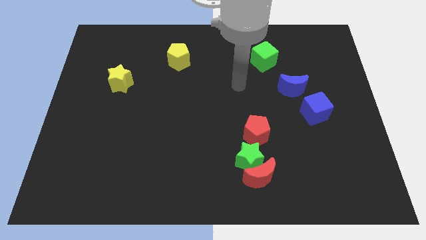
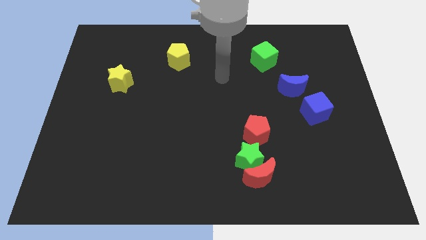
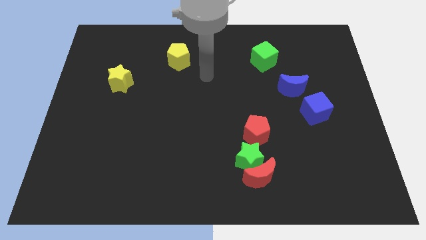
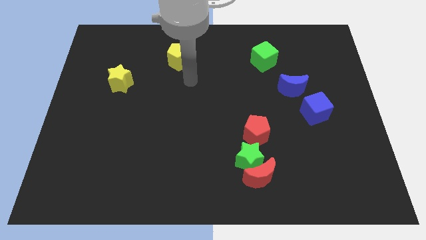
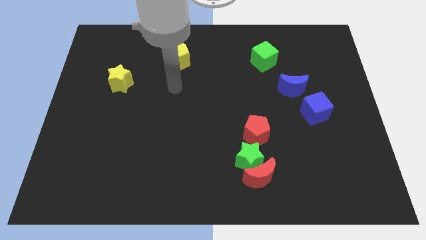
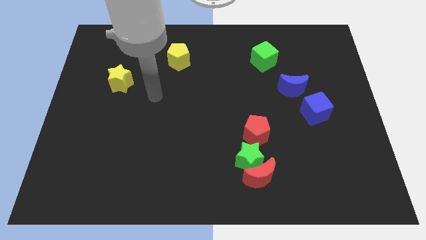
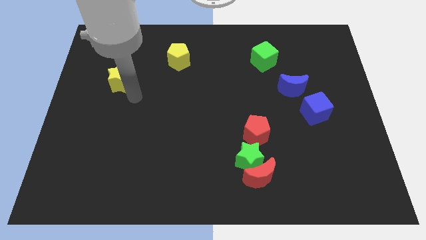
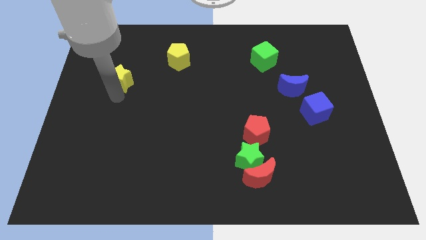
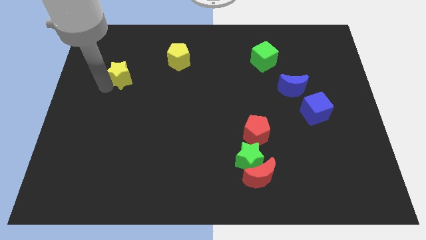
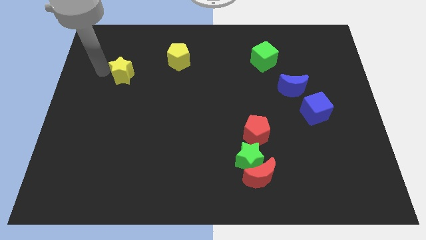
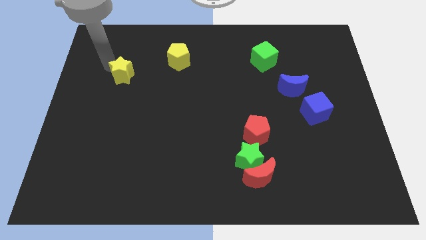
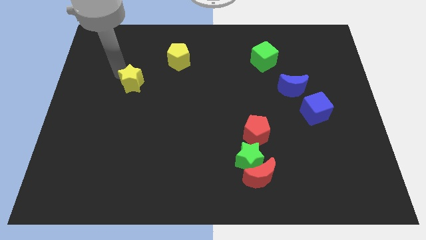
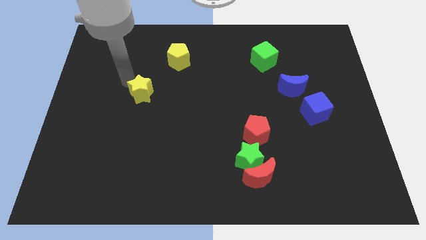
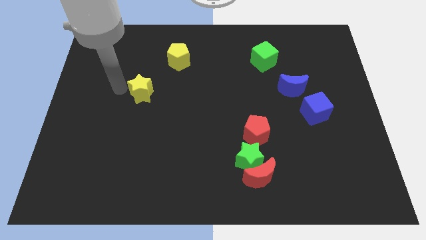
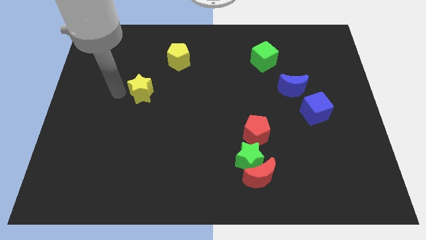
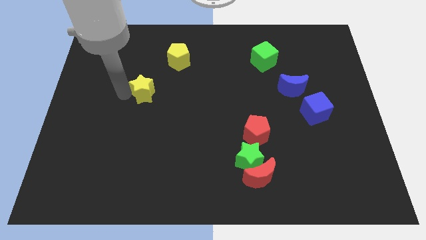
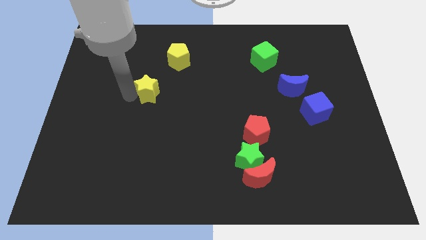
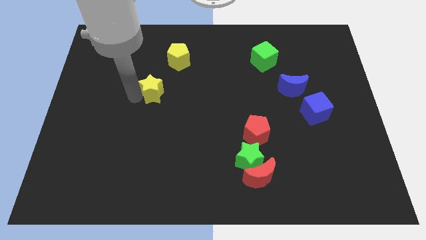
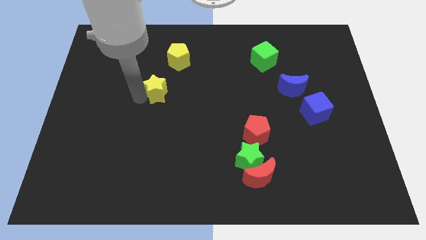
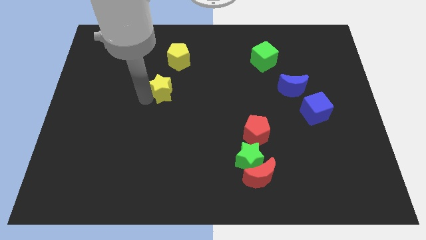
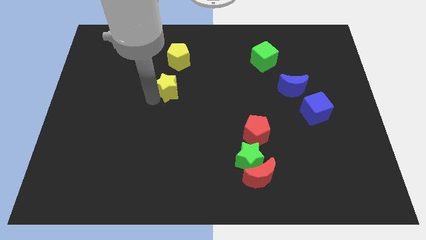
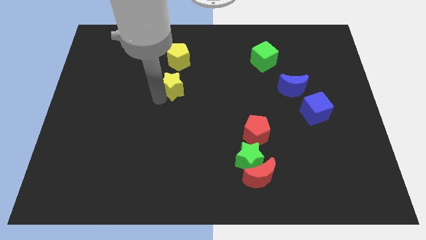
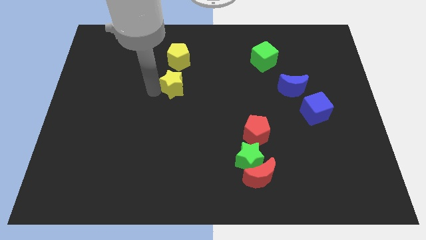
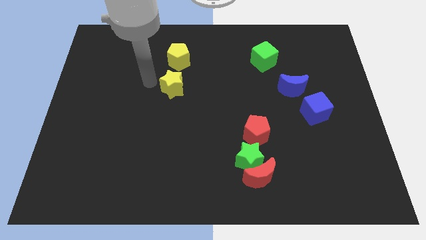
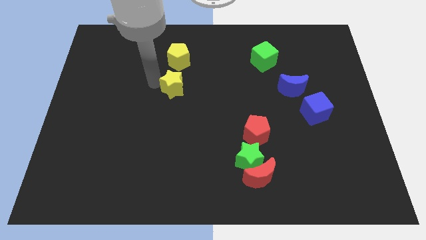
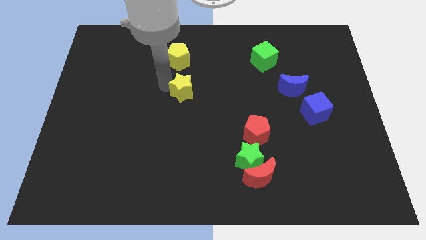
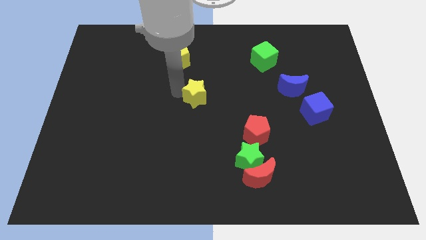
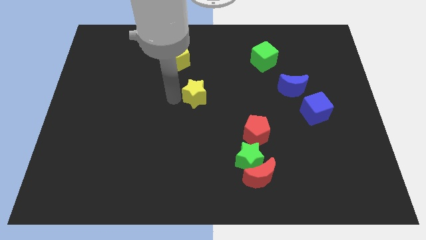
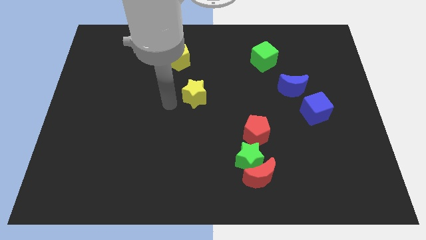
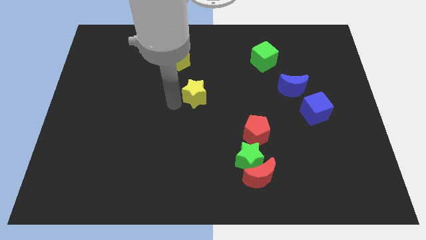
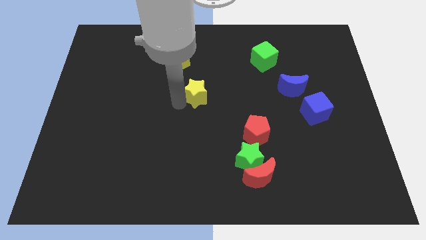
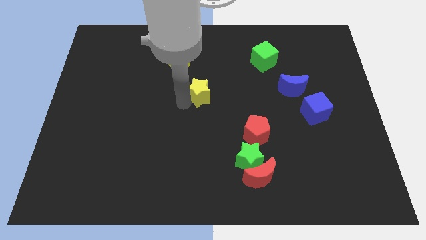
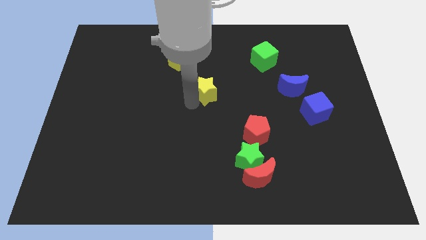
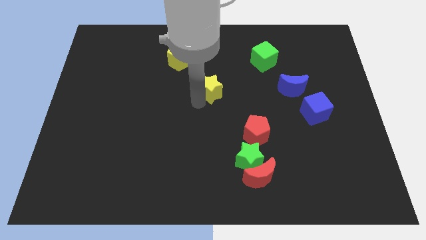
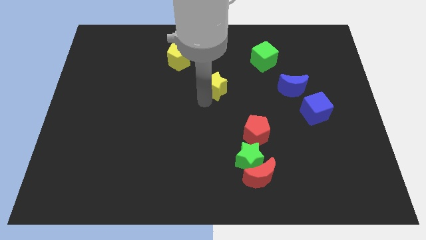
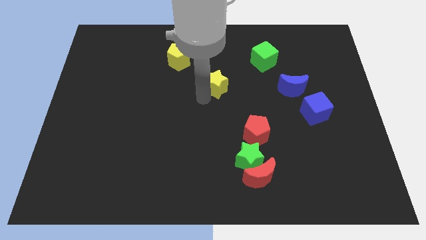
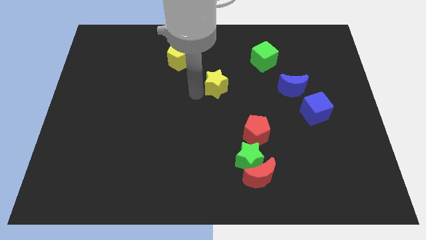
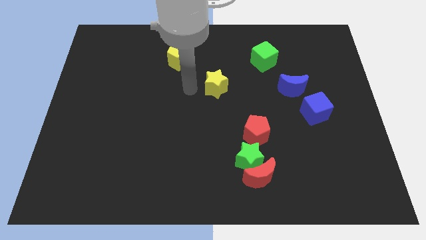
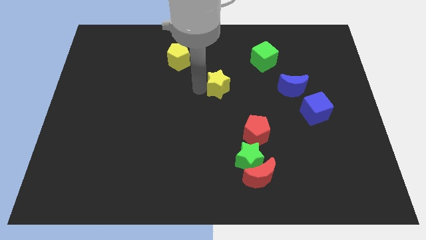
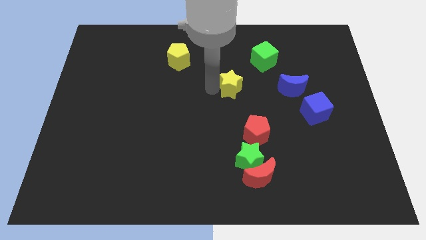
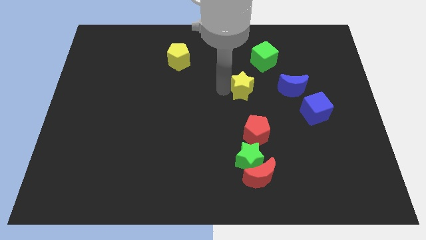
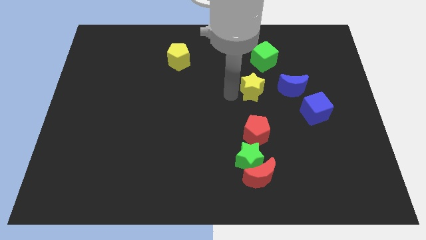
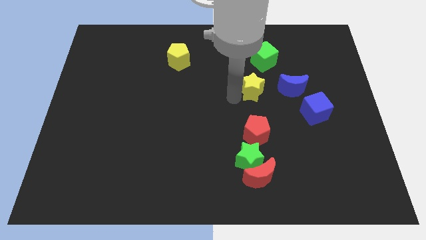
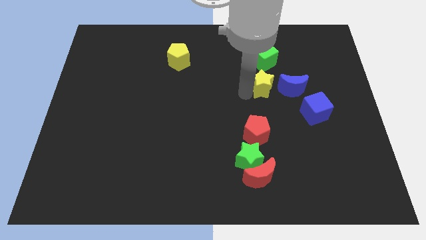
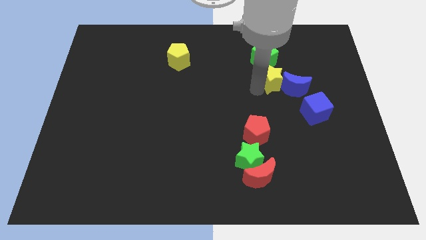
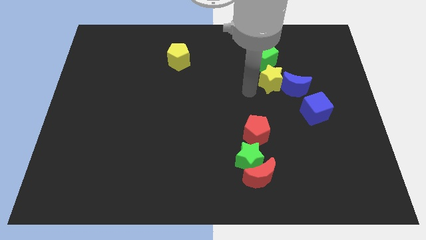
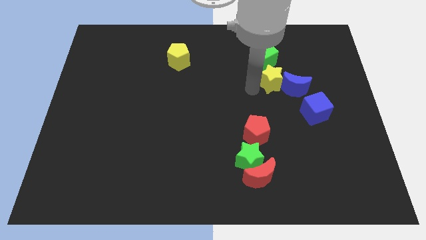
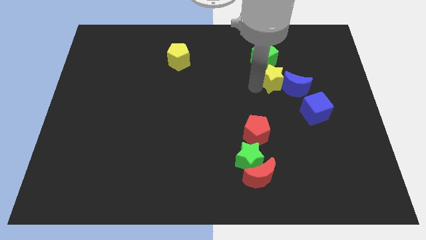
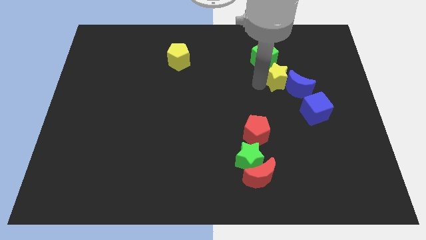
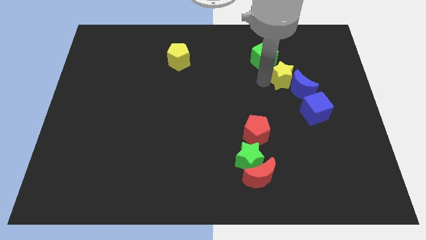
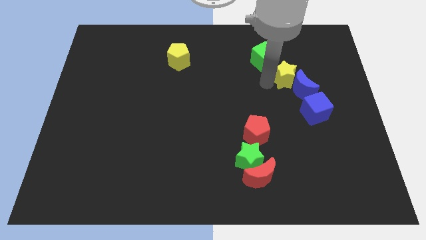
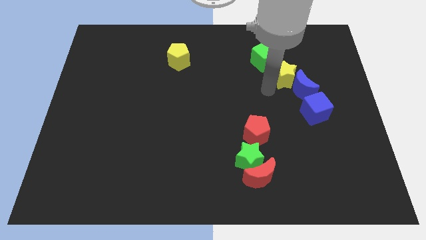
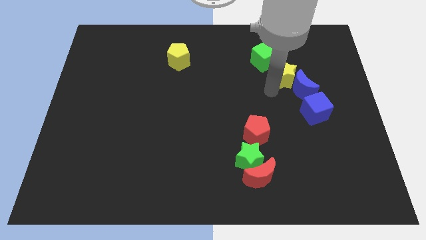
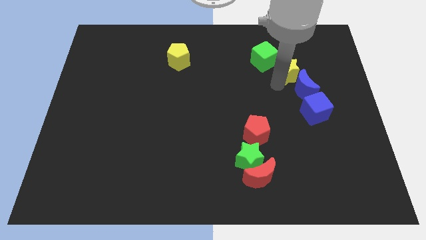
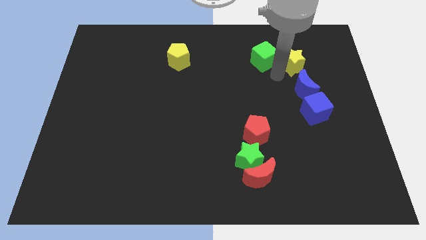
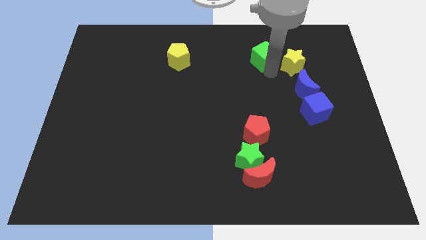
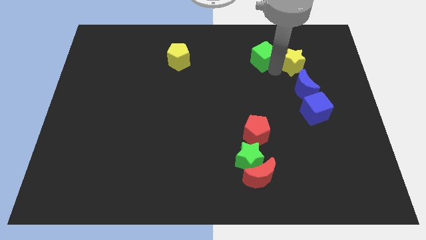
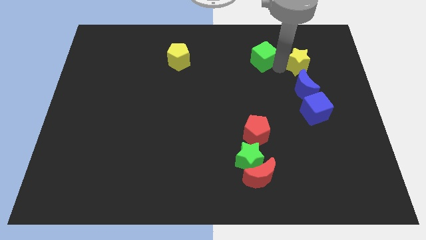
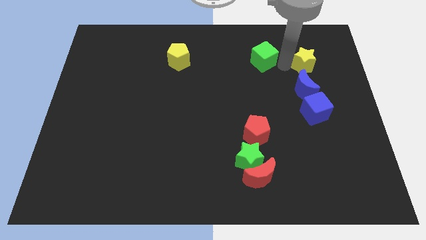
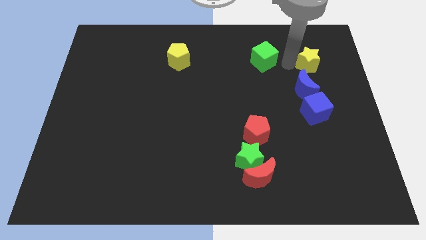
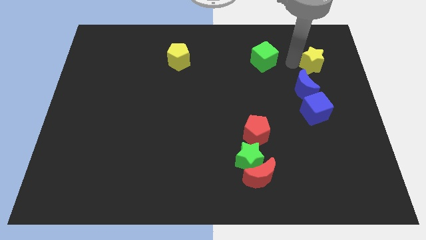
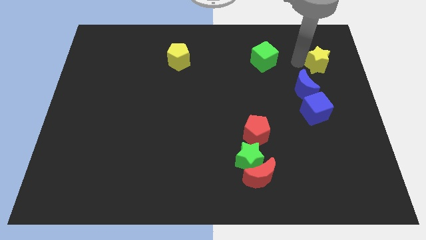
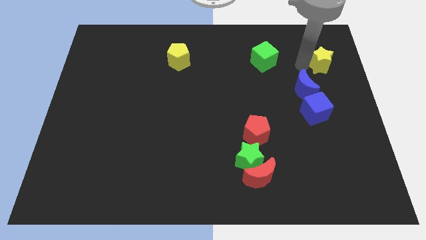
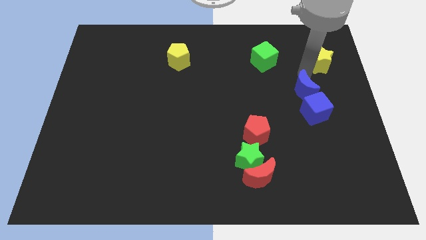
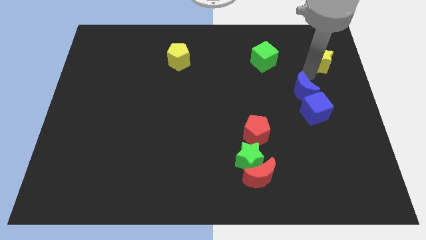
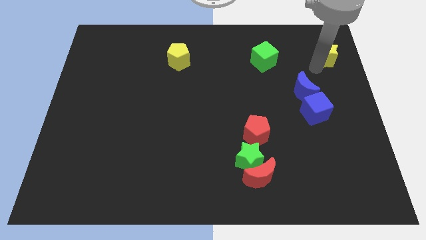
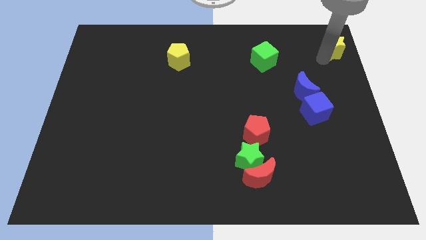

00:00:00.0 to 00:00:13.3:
move the yellow star to the top right corner

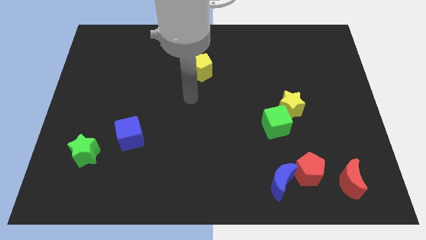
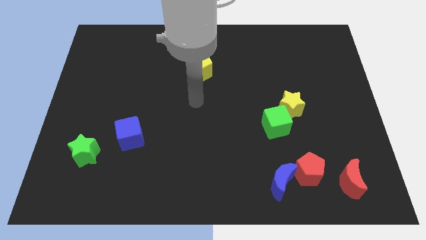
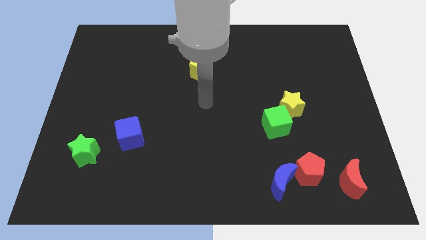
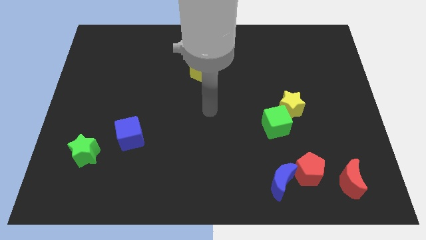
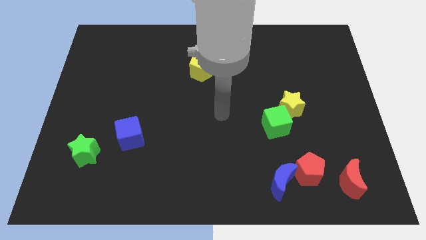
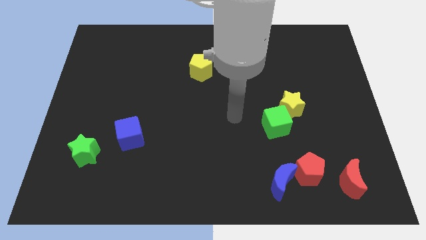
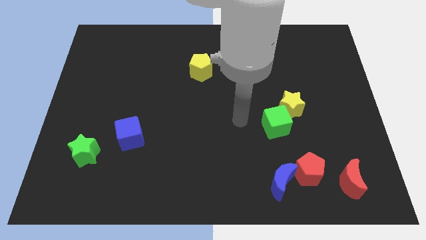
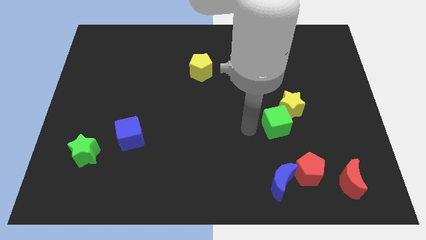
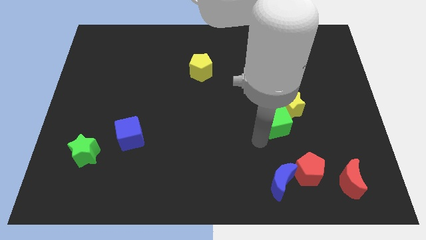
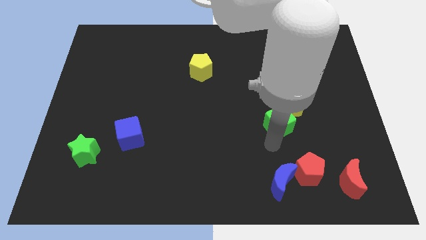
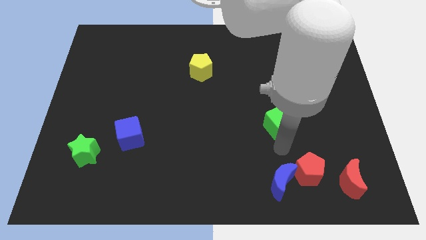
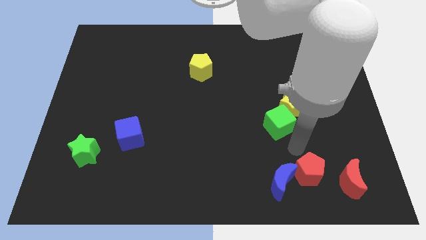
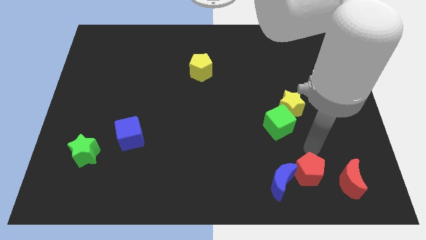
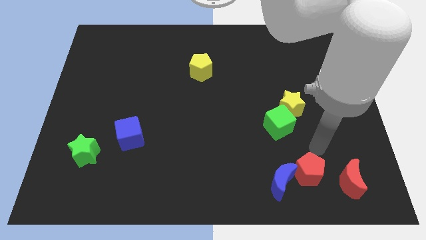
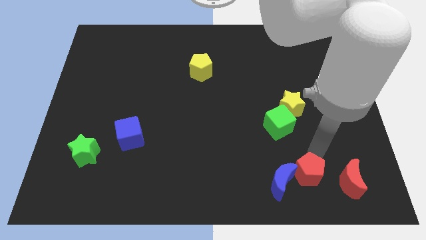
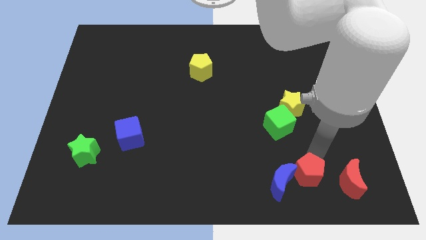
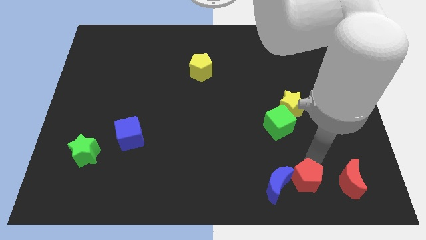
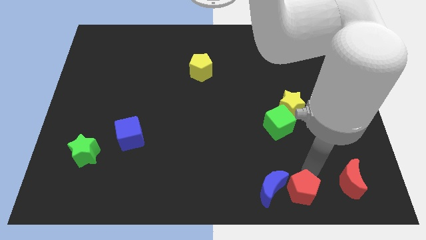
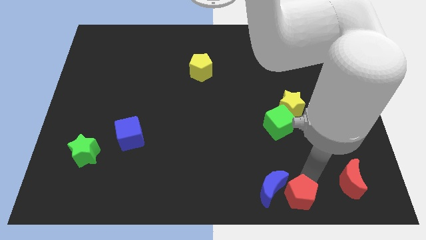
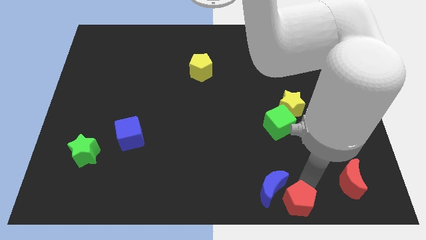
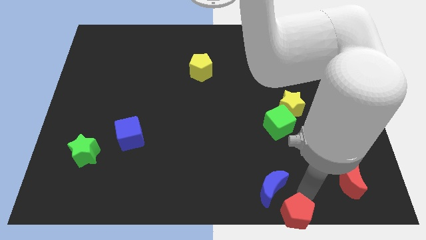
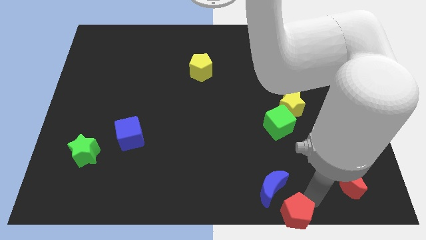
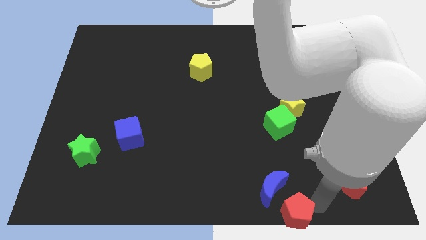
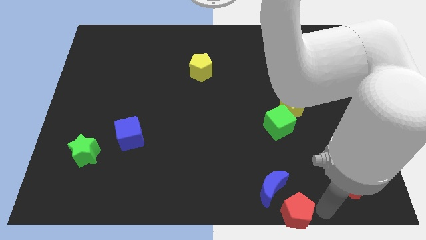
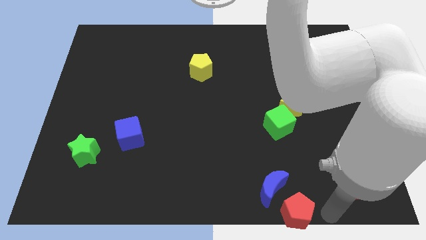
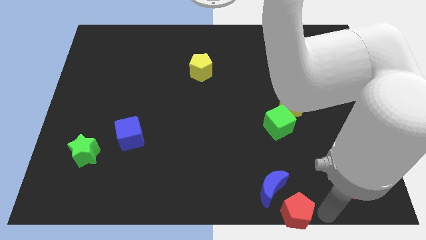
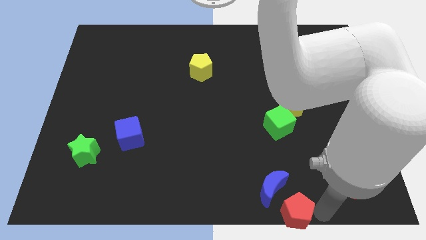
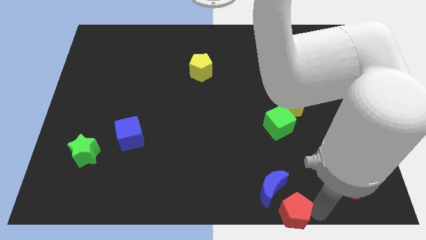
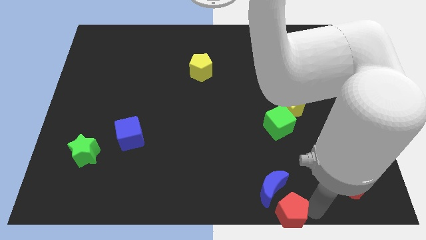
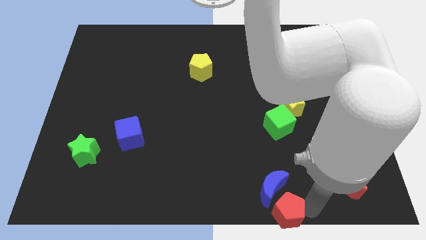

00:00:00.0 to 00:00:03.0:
push the red pentagon to the bottom
